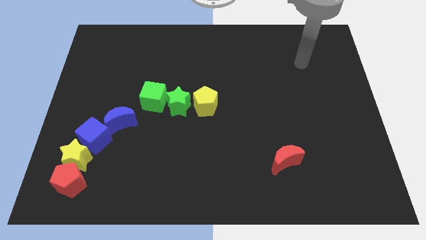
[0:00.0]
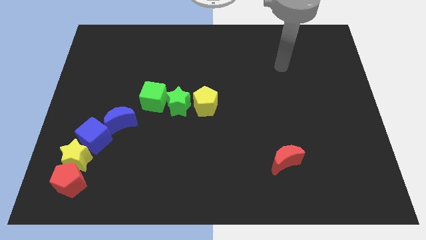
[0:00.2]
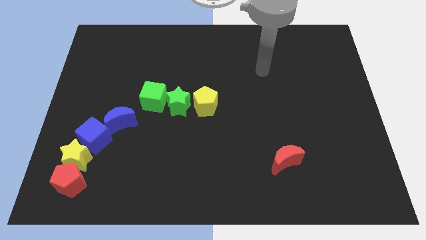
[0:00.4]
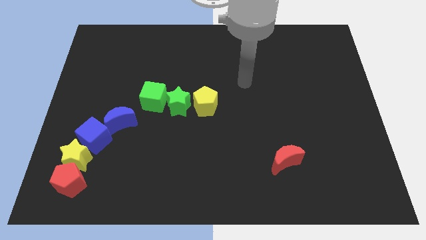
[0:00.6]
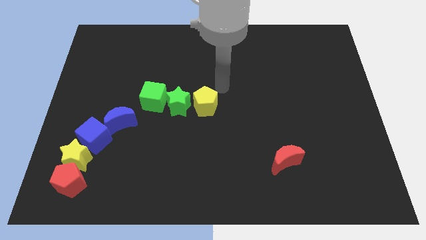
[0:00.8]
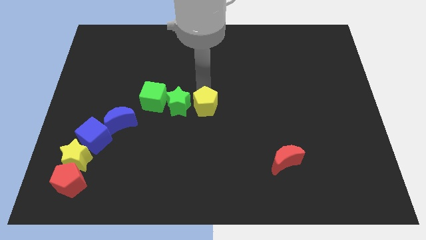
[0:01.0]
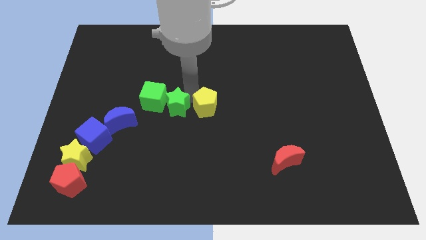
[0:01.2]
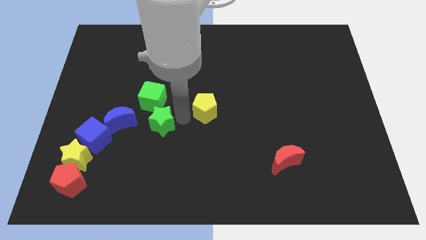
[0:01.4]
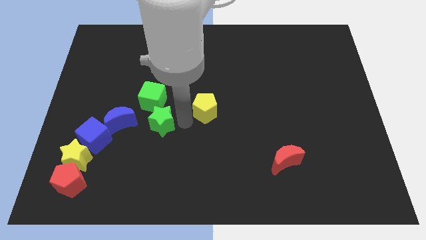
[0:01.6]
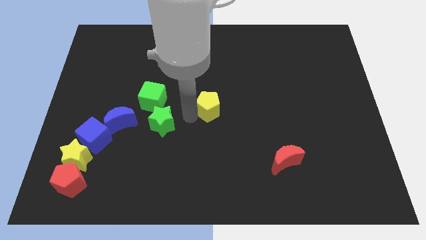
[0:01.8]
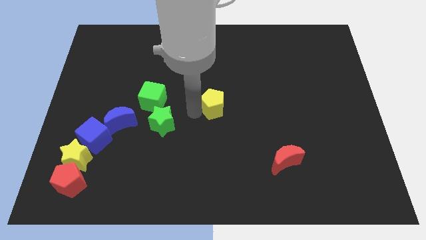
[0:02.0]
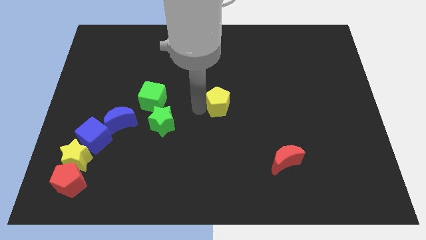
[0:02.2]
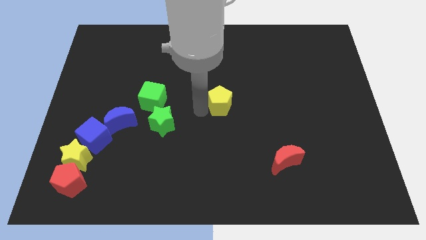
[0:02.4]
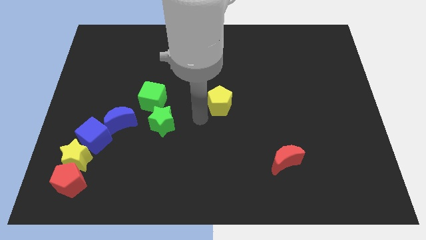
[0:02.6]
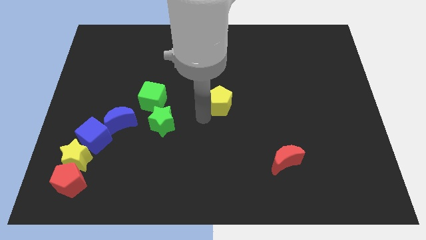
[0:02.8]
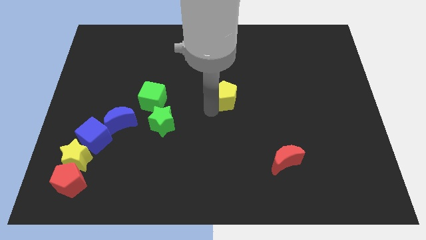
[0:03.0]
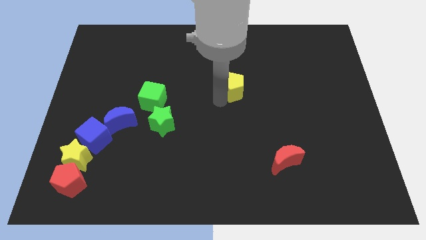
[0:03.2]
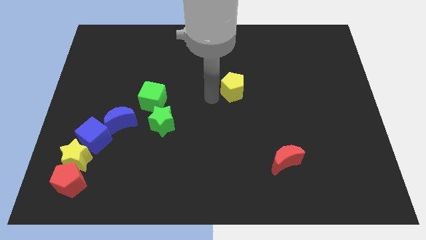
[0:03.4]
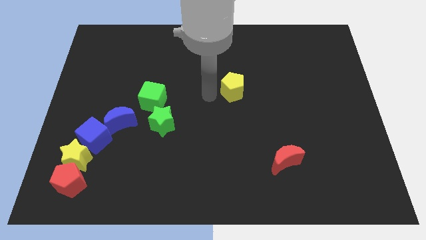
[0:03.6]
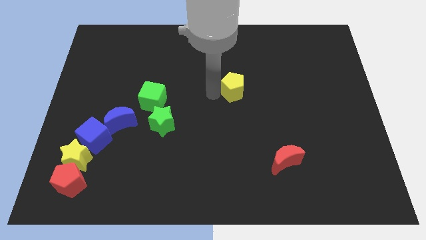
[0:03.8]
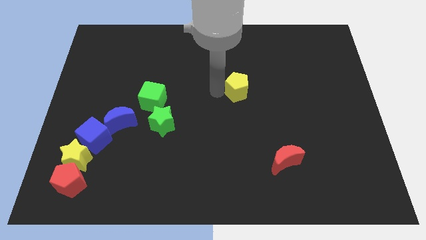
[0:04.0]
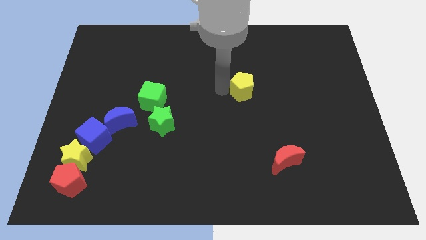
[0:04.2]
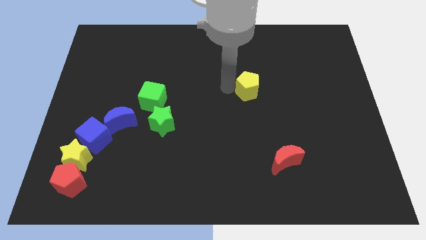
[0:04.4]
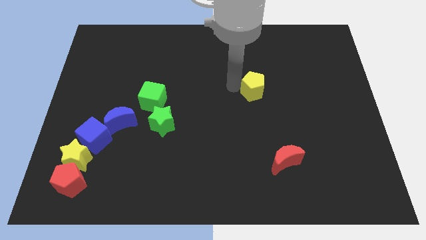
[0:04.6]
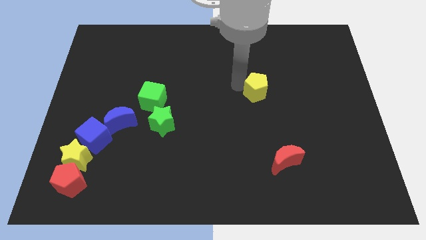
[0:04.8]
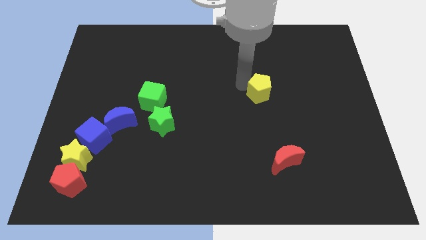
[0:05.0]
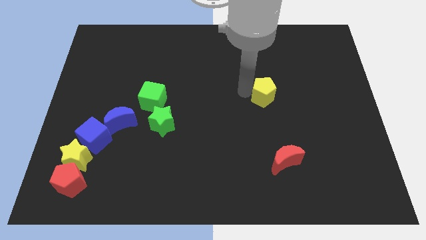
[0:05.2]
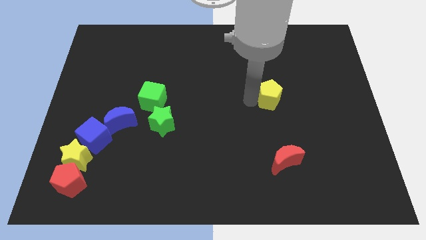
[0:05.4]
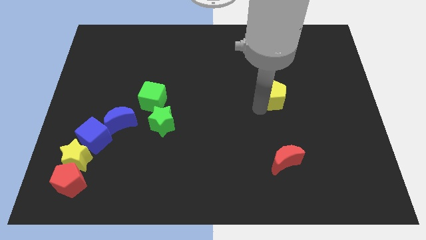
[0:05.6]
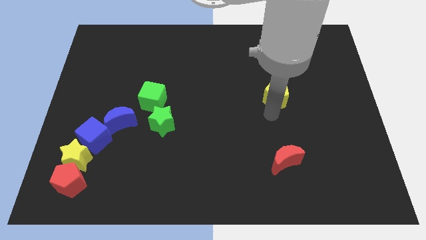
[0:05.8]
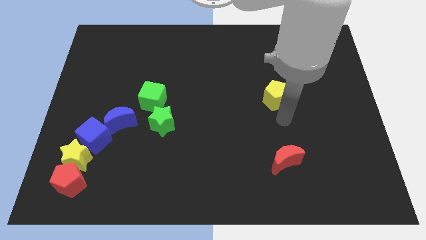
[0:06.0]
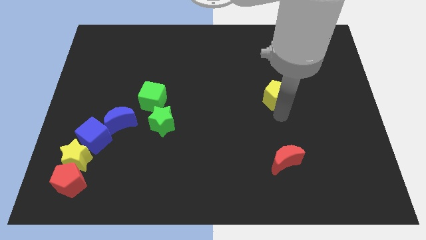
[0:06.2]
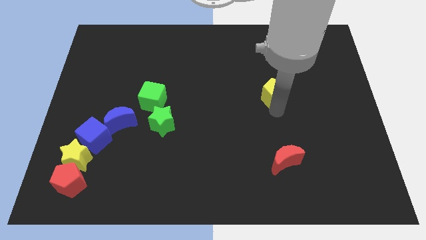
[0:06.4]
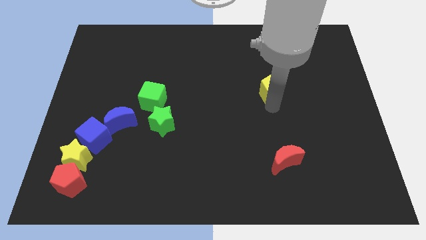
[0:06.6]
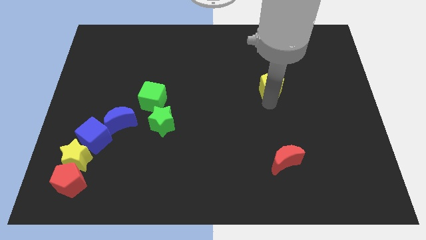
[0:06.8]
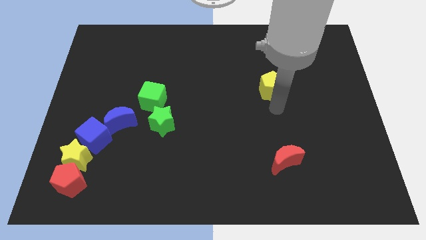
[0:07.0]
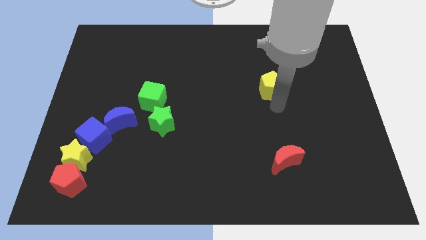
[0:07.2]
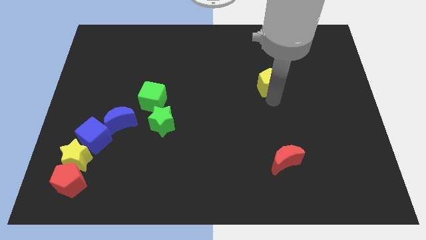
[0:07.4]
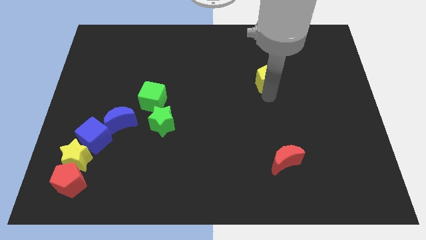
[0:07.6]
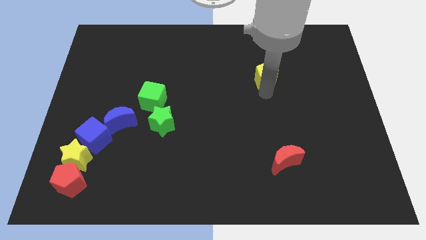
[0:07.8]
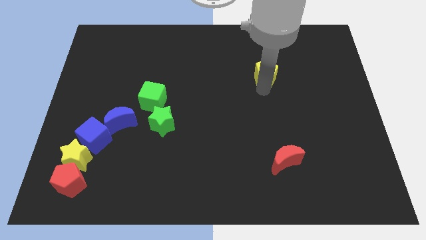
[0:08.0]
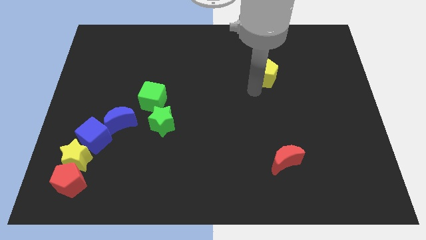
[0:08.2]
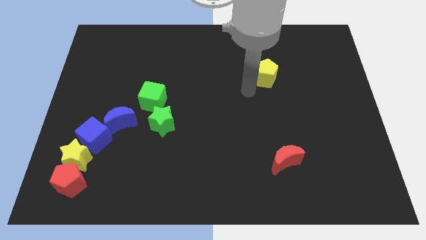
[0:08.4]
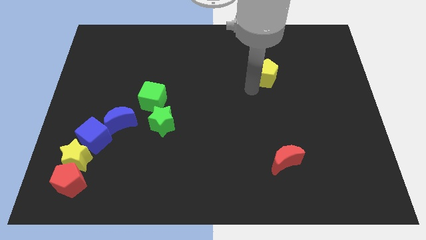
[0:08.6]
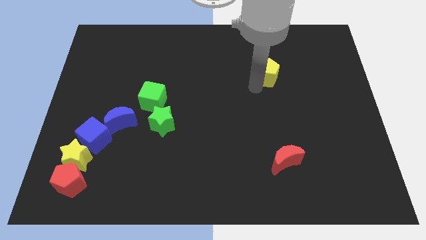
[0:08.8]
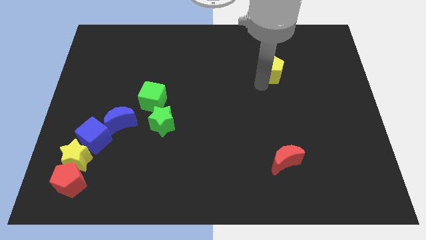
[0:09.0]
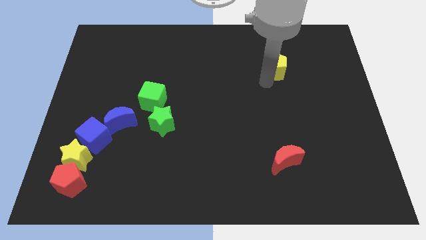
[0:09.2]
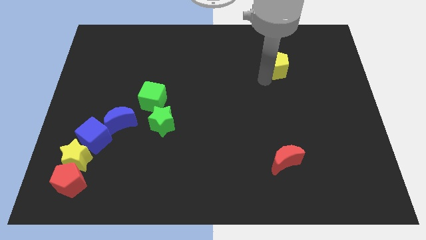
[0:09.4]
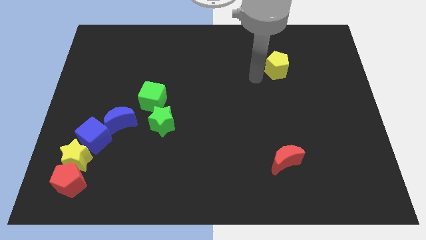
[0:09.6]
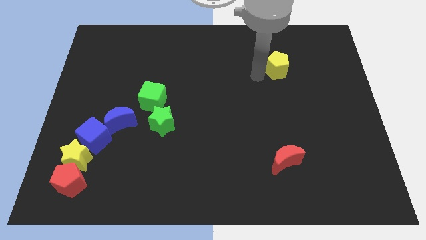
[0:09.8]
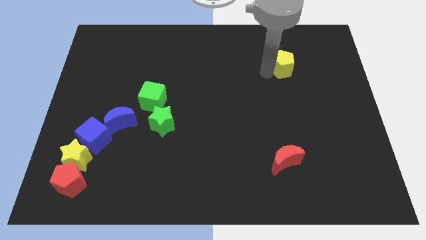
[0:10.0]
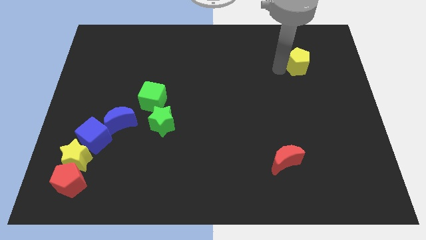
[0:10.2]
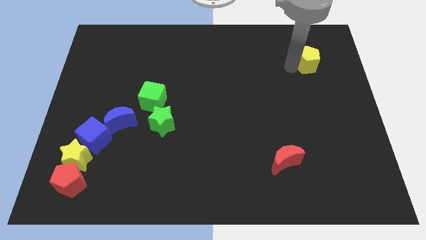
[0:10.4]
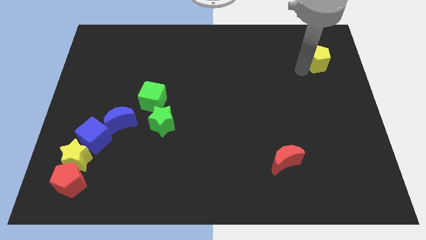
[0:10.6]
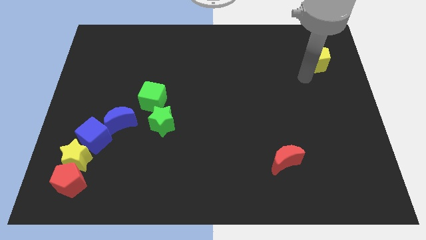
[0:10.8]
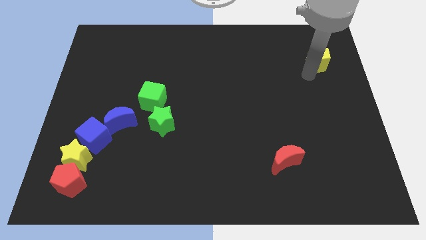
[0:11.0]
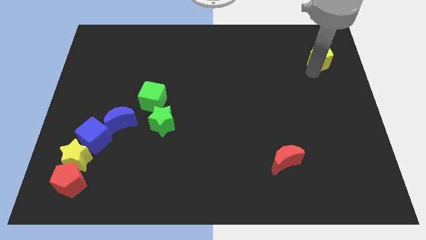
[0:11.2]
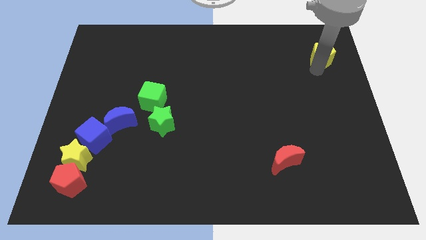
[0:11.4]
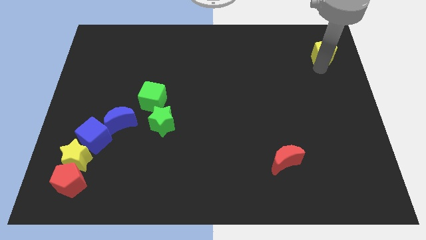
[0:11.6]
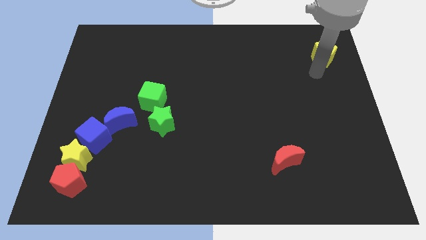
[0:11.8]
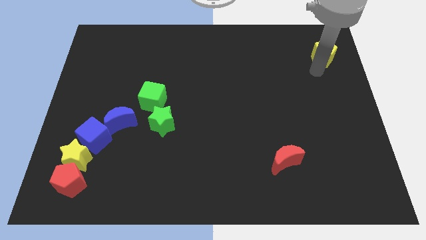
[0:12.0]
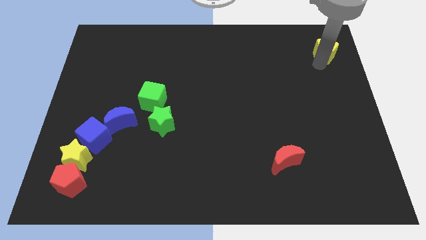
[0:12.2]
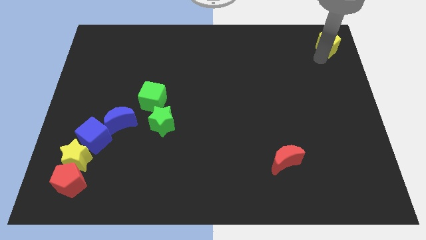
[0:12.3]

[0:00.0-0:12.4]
push the yellow pentagon to the upper right corner

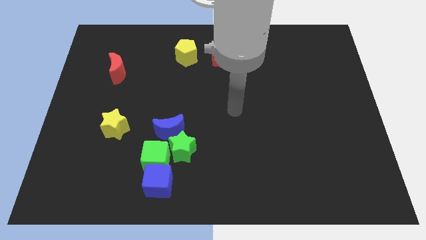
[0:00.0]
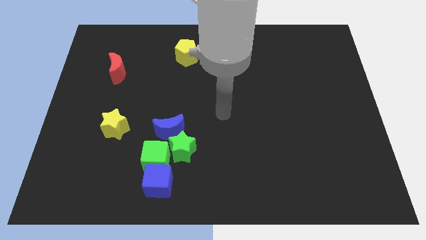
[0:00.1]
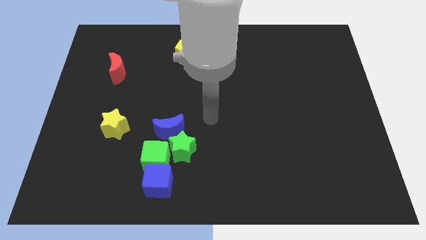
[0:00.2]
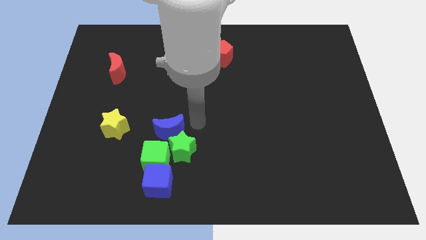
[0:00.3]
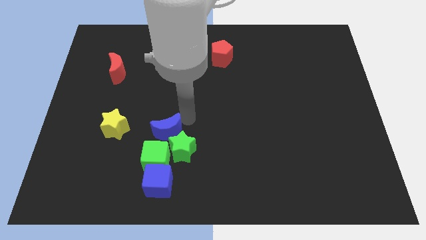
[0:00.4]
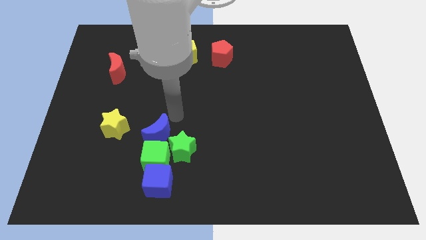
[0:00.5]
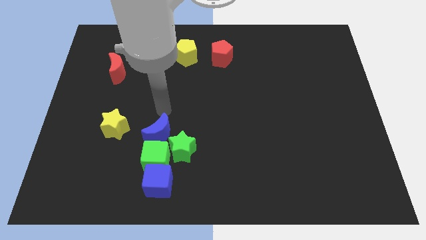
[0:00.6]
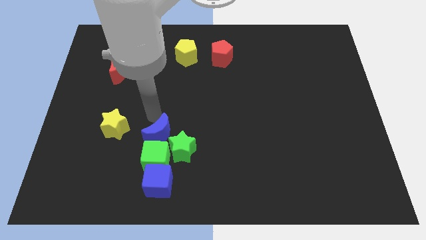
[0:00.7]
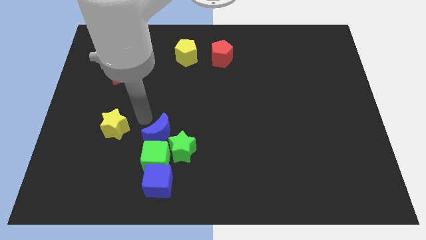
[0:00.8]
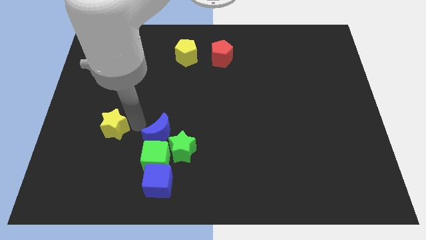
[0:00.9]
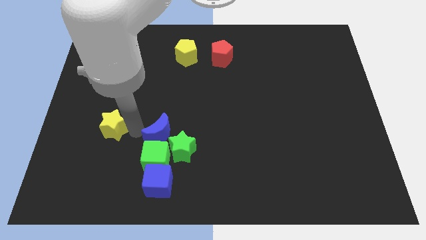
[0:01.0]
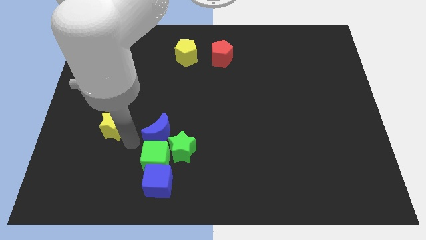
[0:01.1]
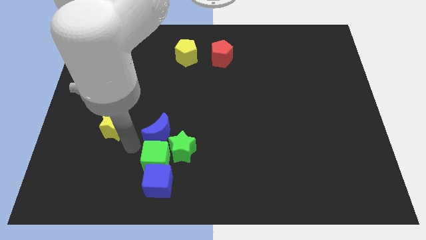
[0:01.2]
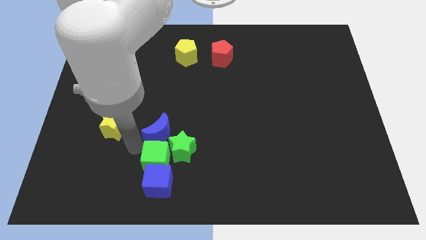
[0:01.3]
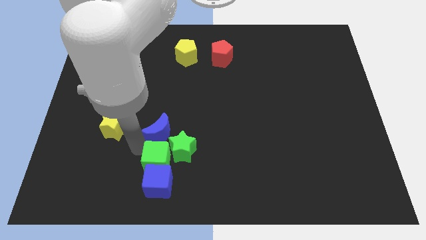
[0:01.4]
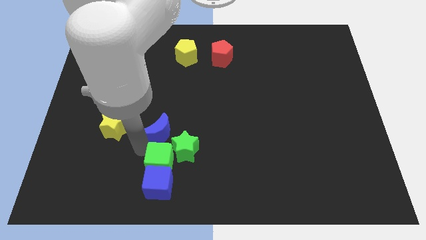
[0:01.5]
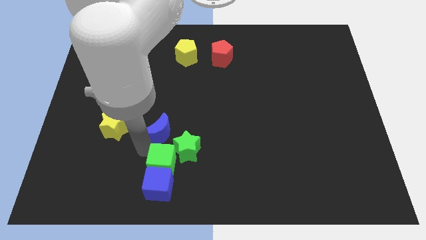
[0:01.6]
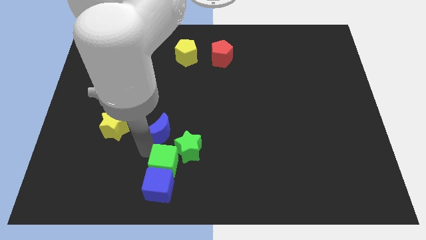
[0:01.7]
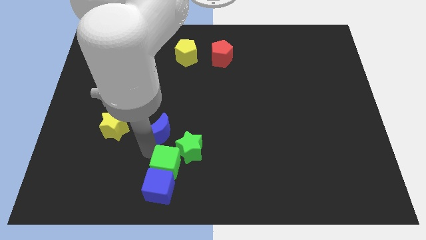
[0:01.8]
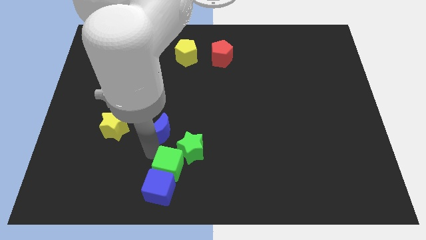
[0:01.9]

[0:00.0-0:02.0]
slide the green cube to the bottom side
